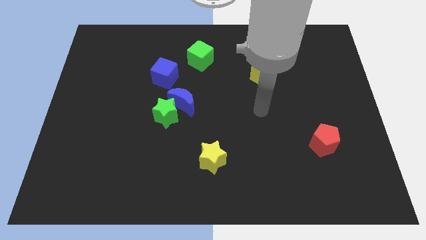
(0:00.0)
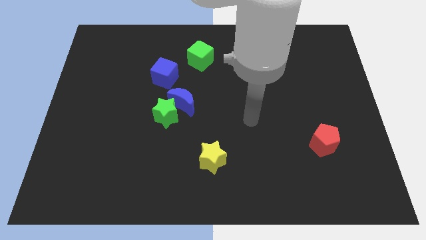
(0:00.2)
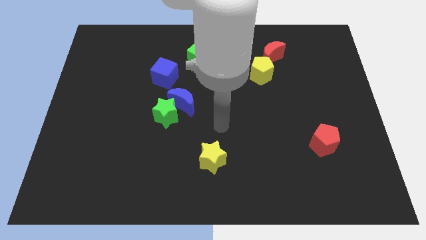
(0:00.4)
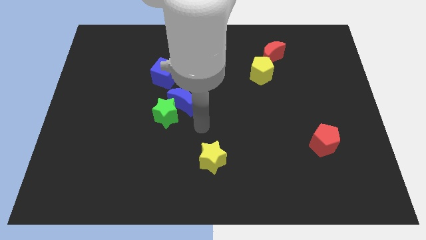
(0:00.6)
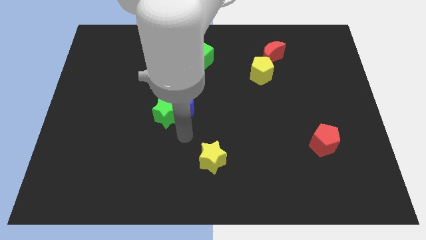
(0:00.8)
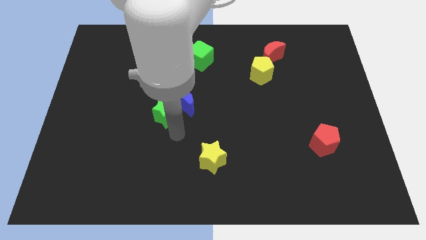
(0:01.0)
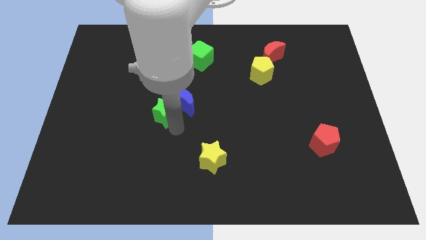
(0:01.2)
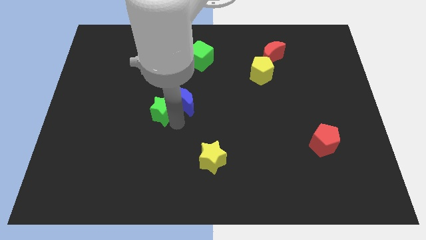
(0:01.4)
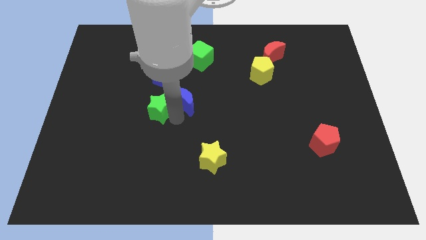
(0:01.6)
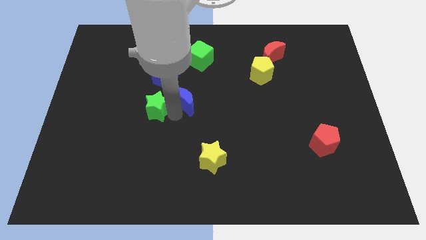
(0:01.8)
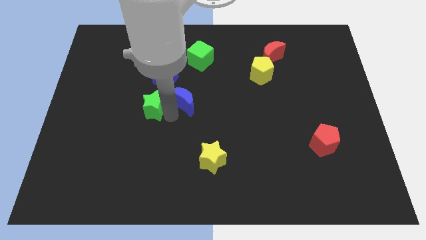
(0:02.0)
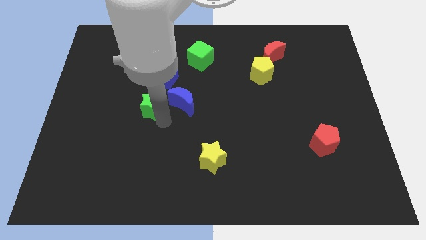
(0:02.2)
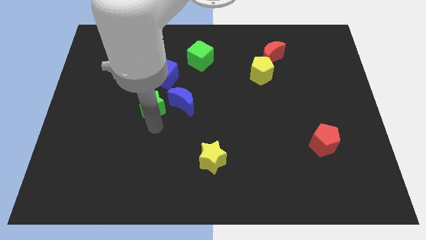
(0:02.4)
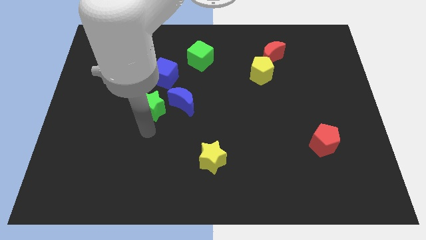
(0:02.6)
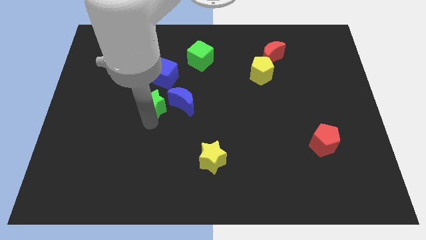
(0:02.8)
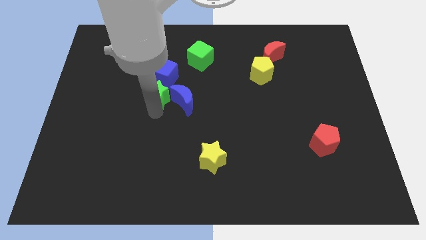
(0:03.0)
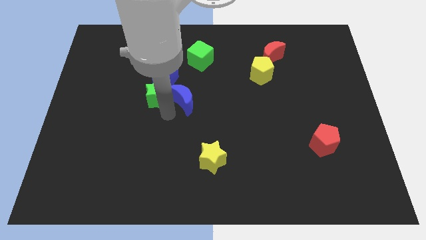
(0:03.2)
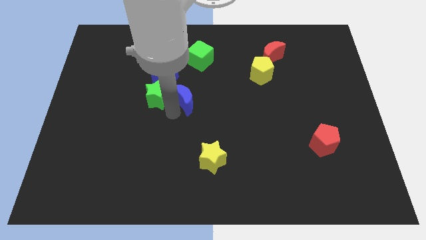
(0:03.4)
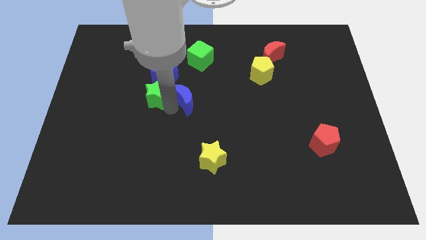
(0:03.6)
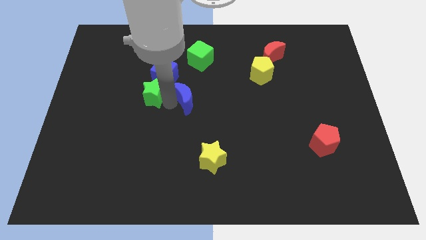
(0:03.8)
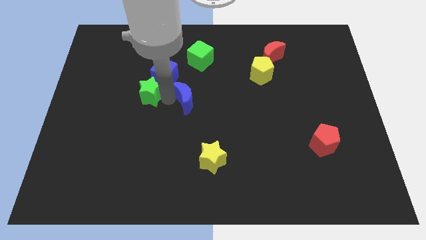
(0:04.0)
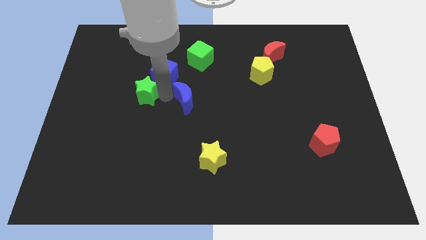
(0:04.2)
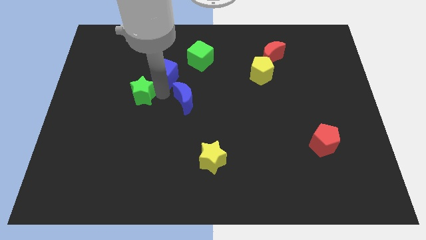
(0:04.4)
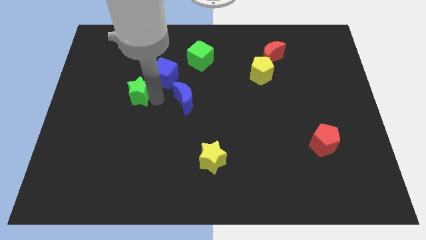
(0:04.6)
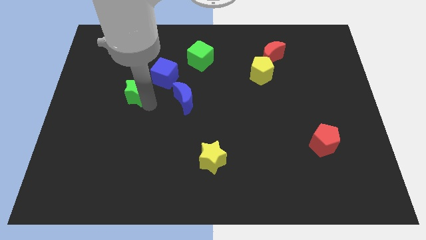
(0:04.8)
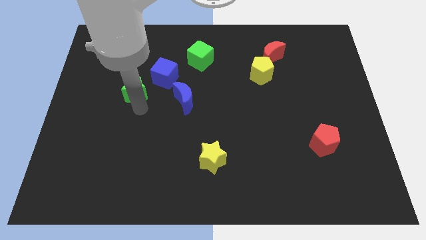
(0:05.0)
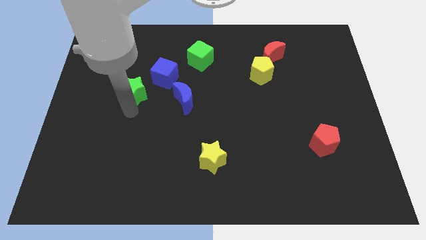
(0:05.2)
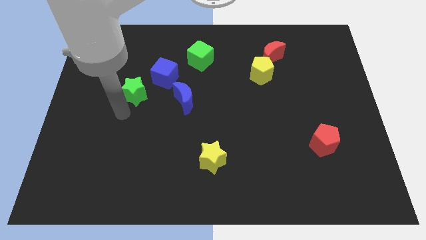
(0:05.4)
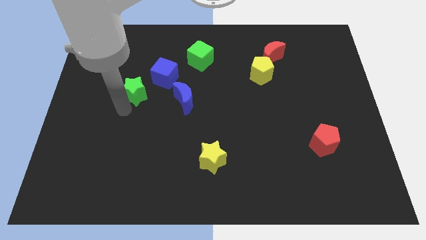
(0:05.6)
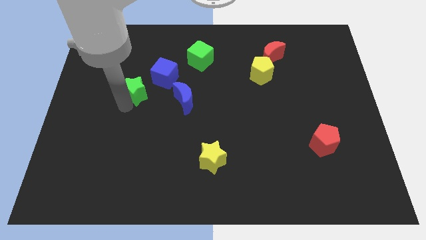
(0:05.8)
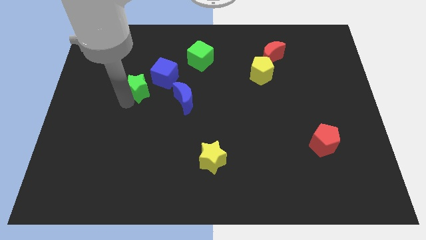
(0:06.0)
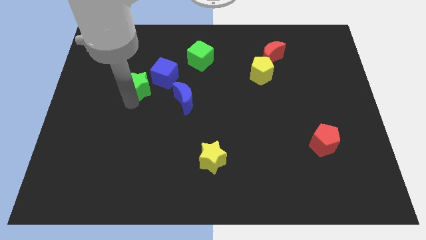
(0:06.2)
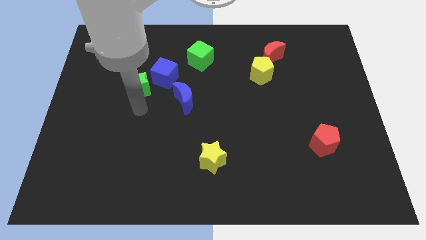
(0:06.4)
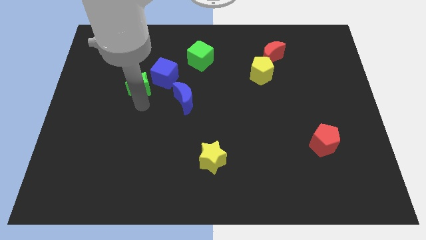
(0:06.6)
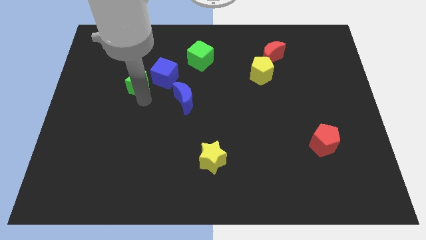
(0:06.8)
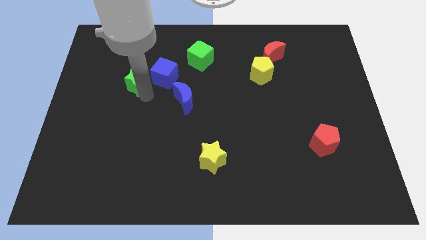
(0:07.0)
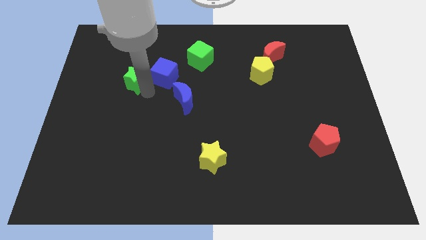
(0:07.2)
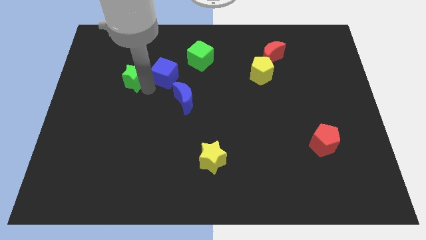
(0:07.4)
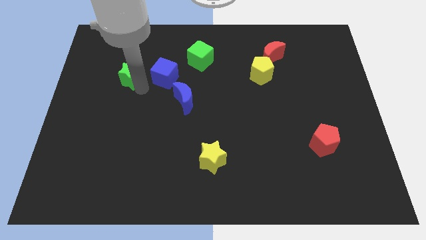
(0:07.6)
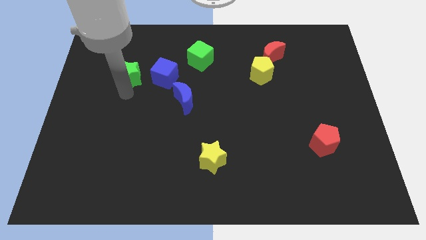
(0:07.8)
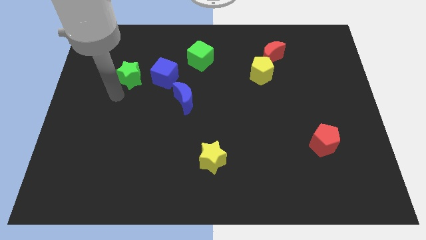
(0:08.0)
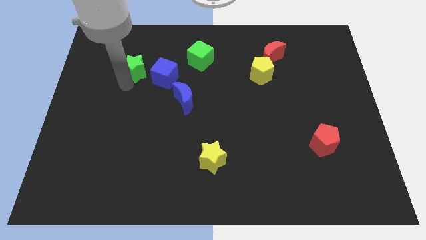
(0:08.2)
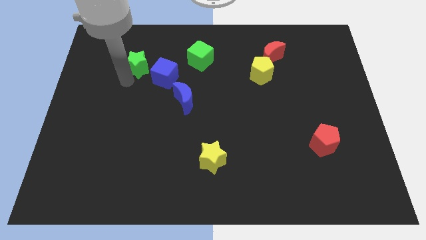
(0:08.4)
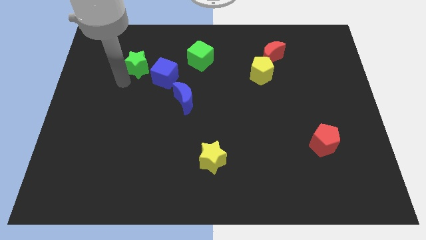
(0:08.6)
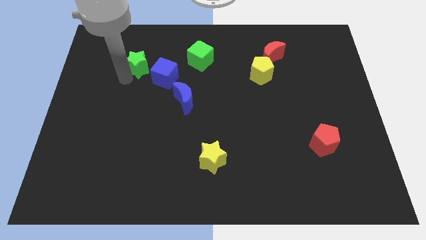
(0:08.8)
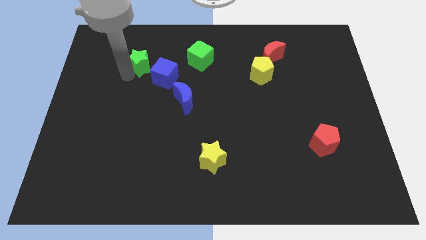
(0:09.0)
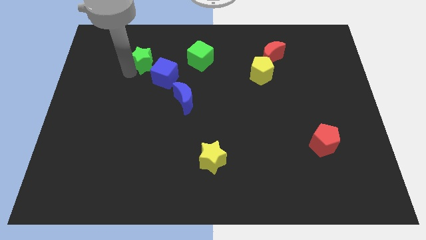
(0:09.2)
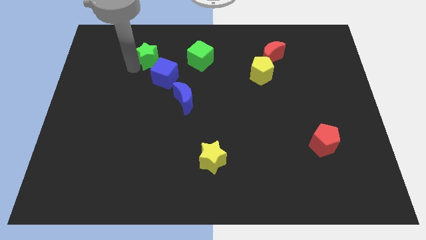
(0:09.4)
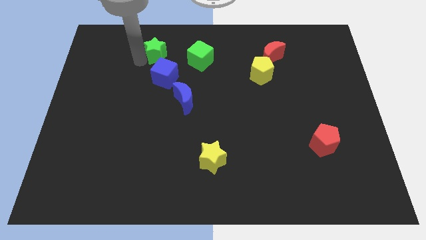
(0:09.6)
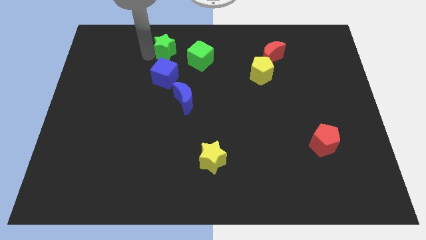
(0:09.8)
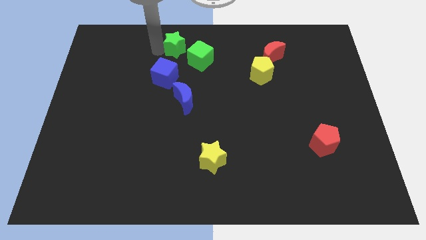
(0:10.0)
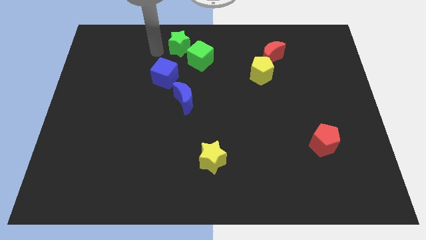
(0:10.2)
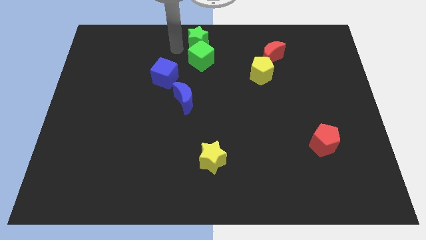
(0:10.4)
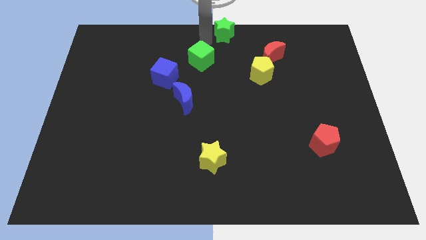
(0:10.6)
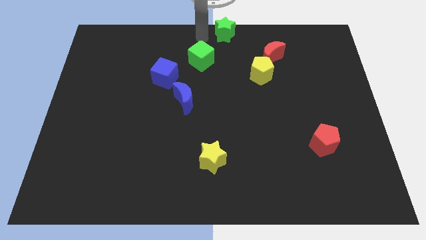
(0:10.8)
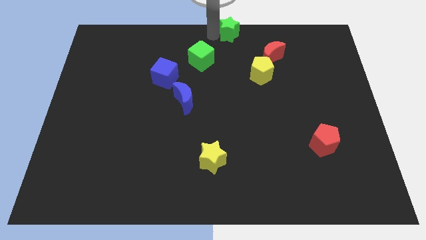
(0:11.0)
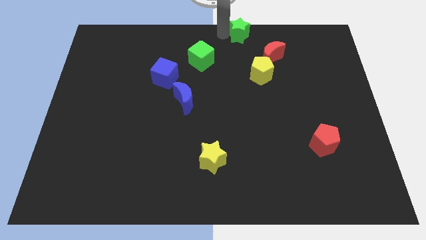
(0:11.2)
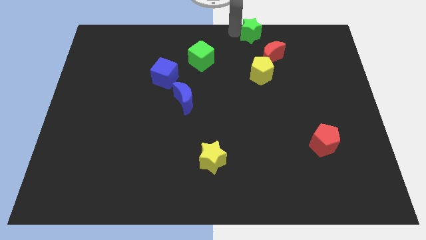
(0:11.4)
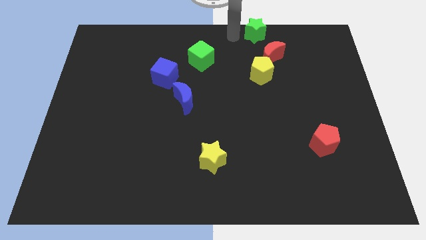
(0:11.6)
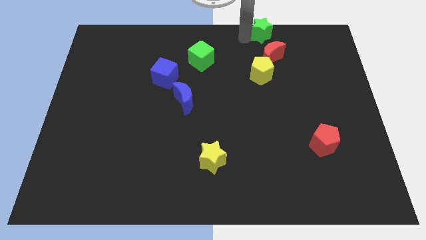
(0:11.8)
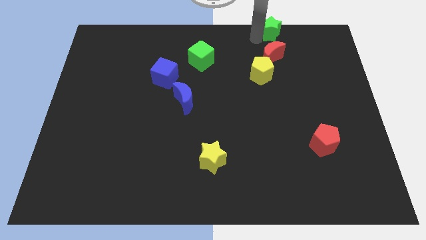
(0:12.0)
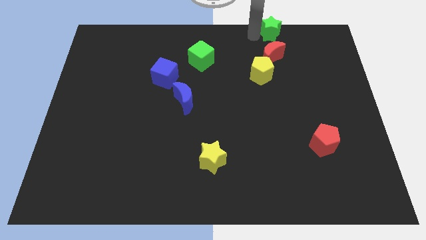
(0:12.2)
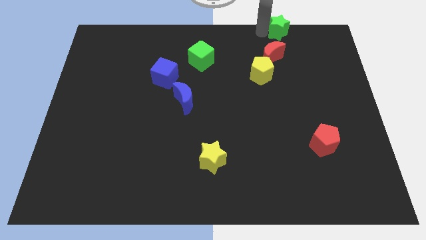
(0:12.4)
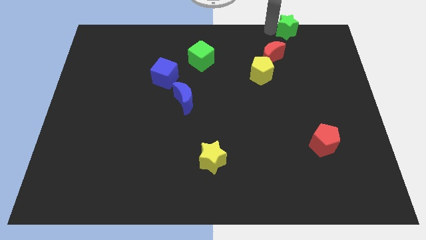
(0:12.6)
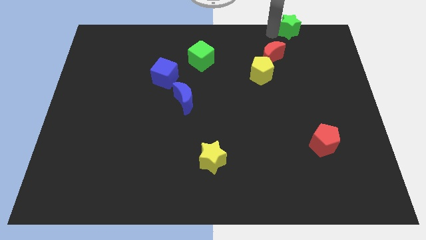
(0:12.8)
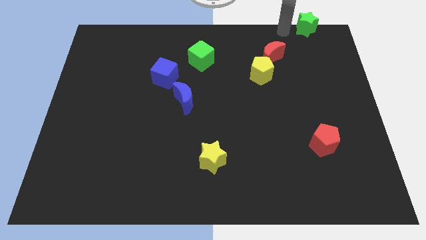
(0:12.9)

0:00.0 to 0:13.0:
put the green star to the top right of the board
